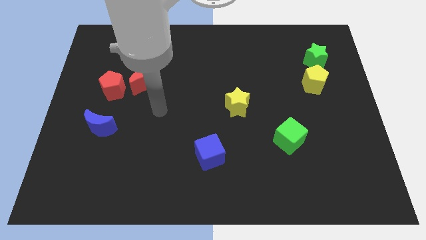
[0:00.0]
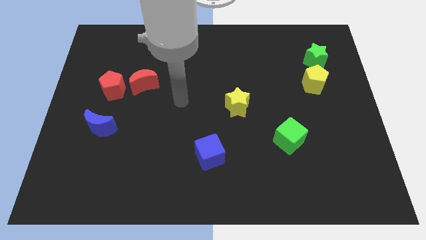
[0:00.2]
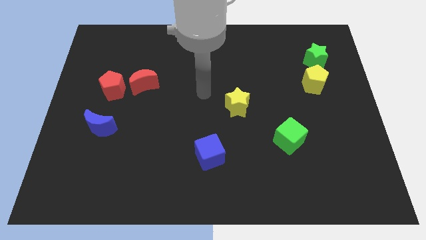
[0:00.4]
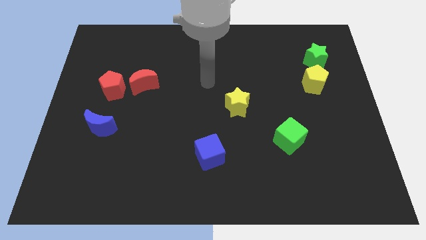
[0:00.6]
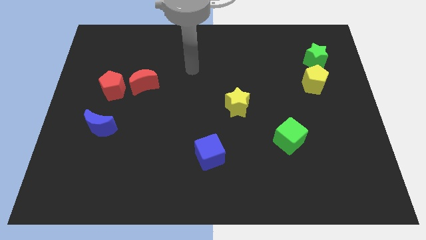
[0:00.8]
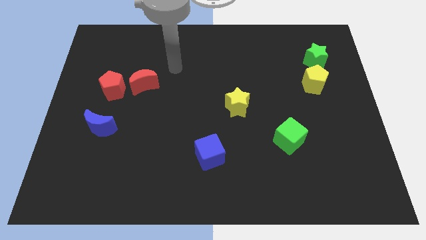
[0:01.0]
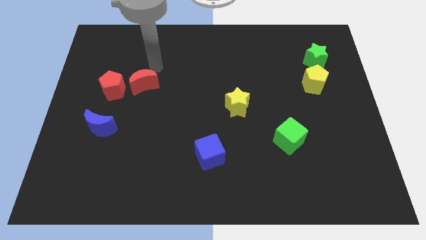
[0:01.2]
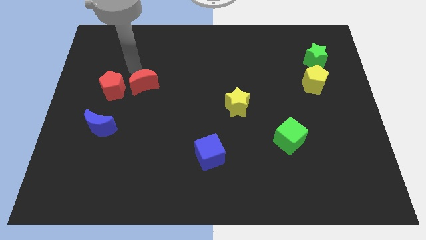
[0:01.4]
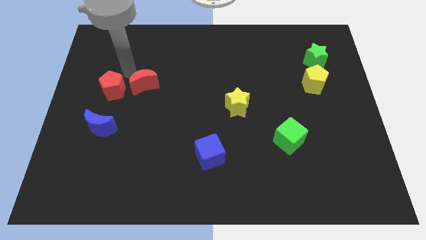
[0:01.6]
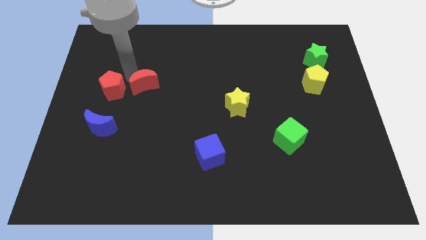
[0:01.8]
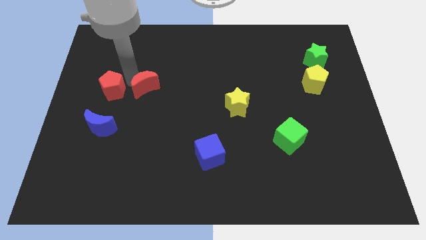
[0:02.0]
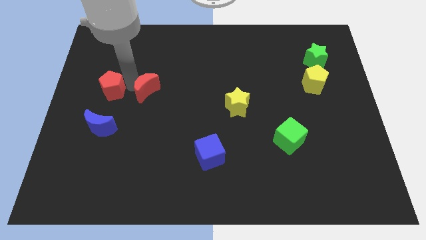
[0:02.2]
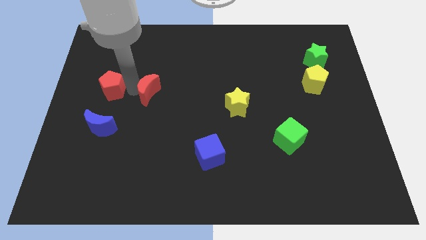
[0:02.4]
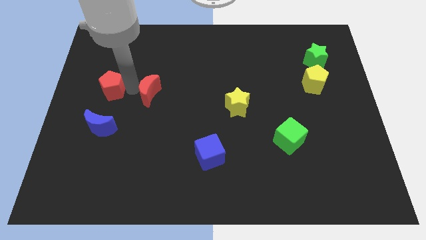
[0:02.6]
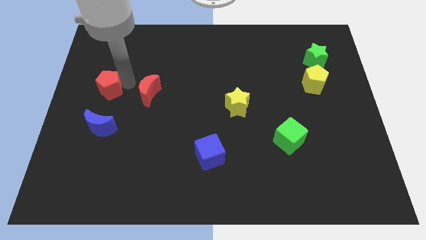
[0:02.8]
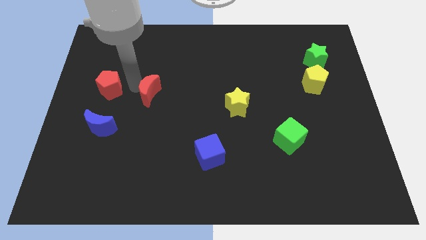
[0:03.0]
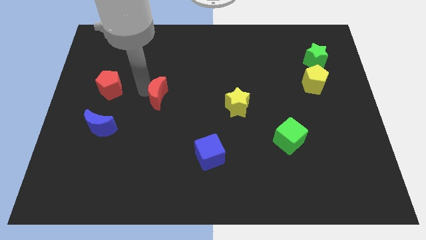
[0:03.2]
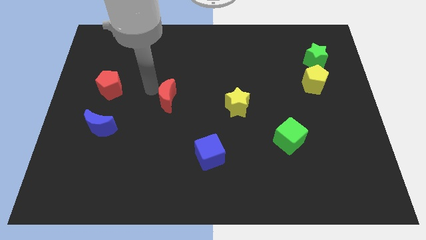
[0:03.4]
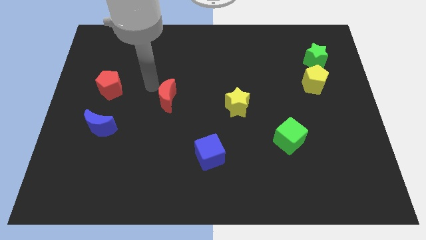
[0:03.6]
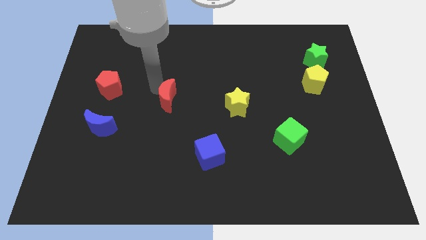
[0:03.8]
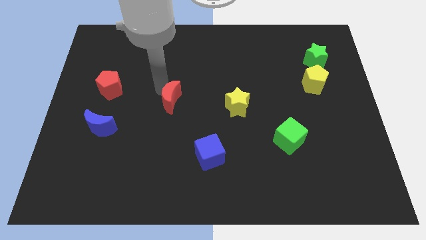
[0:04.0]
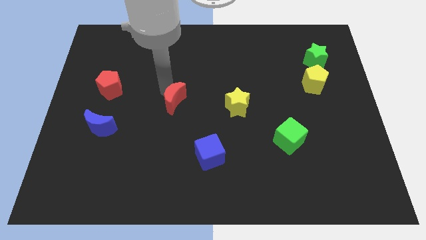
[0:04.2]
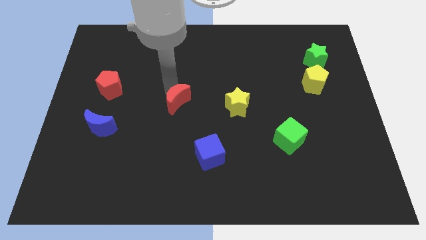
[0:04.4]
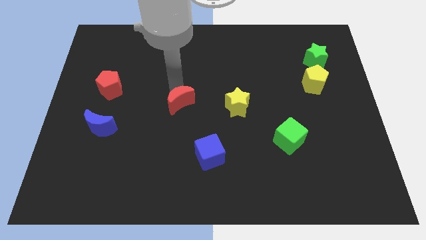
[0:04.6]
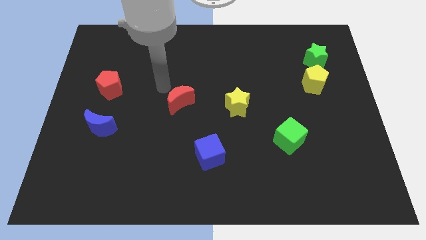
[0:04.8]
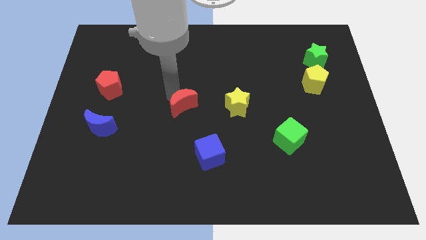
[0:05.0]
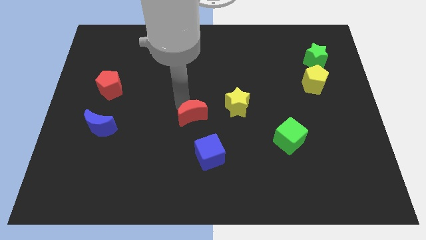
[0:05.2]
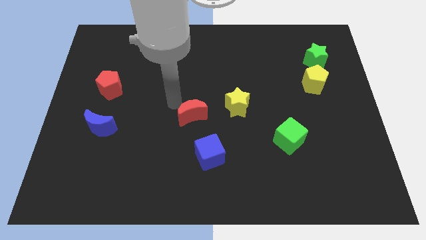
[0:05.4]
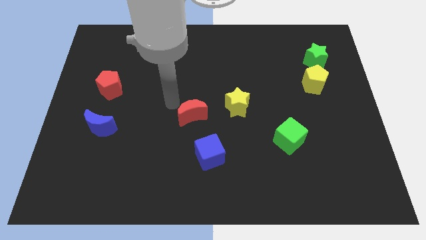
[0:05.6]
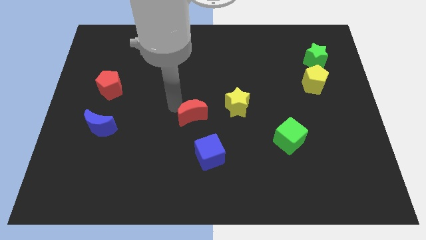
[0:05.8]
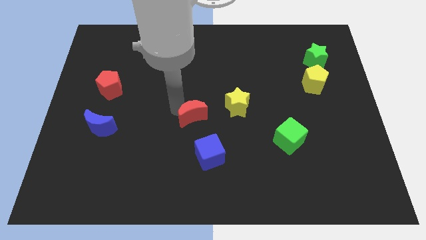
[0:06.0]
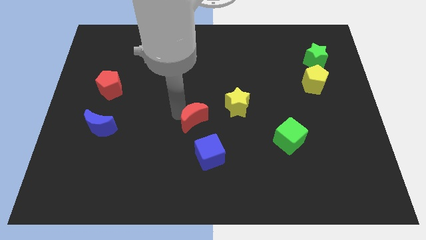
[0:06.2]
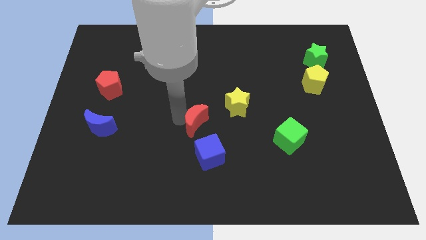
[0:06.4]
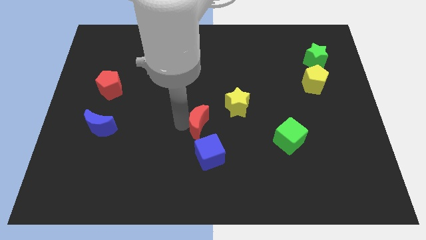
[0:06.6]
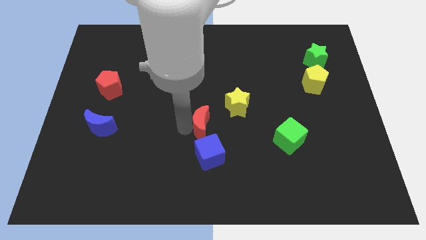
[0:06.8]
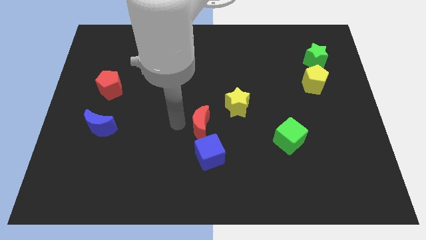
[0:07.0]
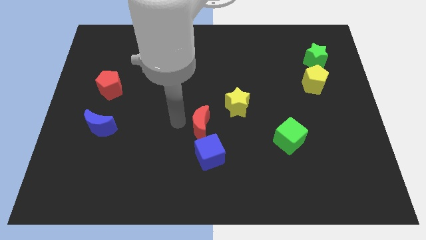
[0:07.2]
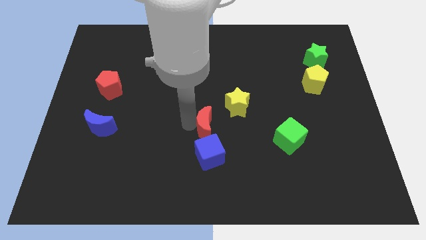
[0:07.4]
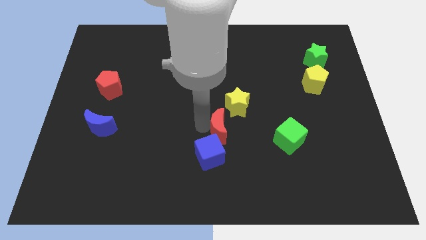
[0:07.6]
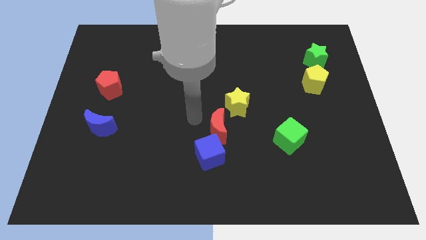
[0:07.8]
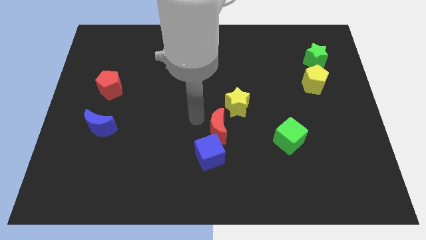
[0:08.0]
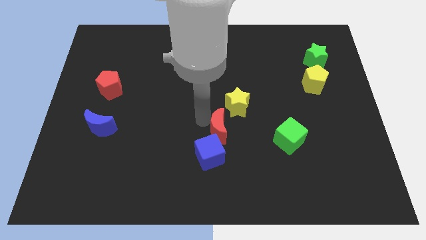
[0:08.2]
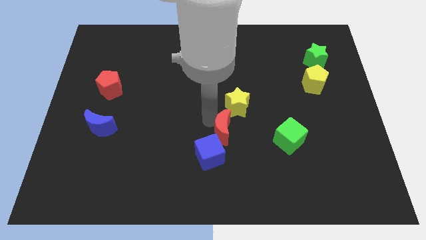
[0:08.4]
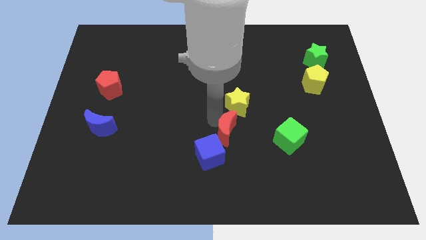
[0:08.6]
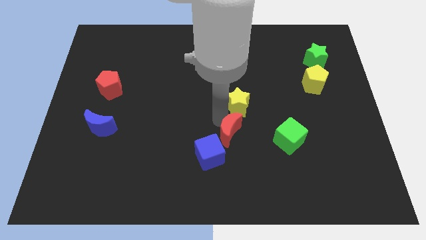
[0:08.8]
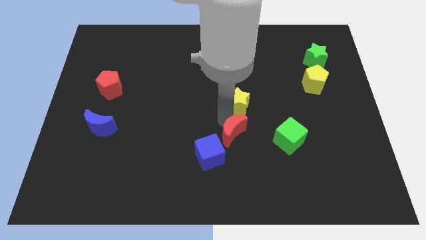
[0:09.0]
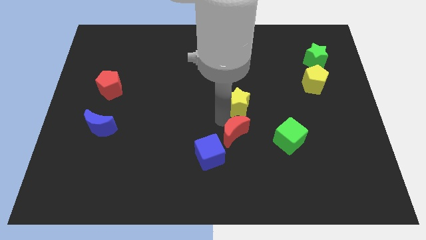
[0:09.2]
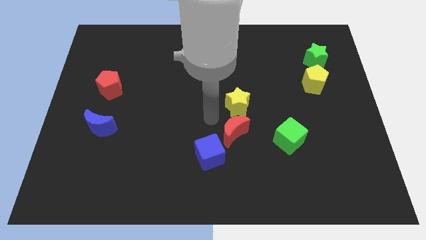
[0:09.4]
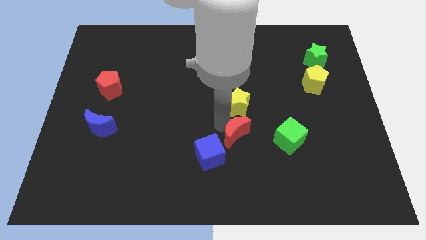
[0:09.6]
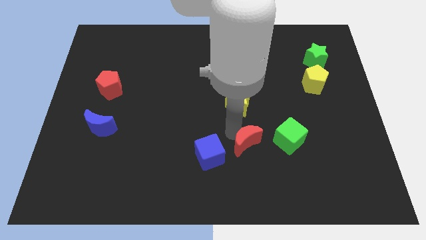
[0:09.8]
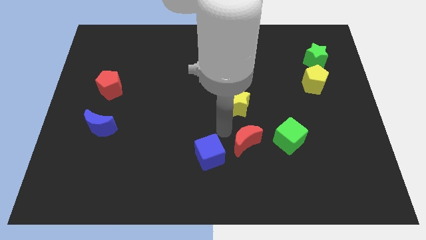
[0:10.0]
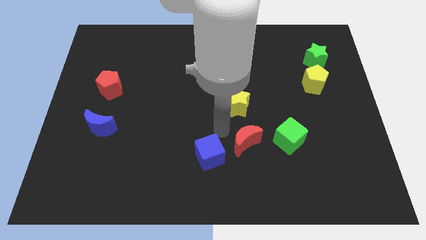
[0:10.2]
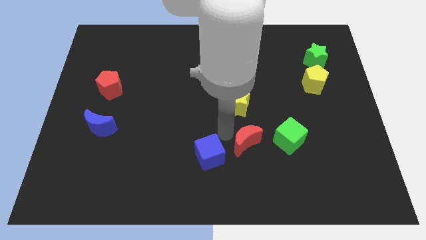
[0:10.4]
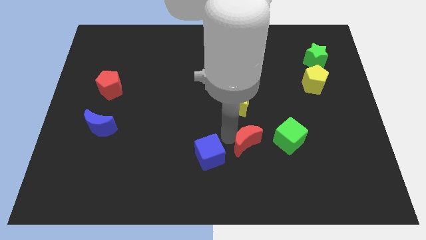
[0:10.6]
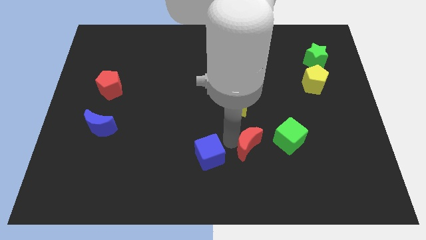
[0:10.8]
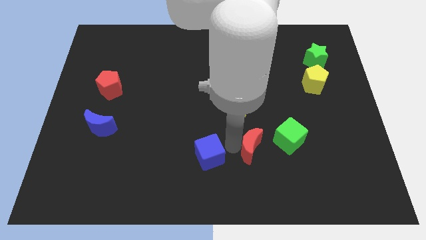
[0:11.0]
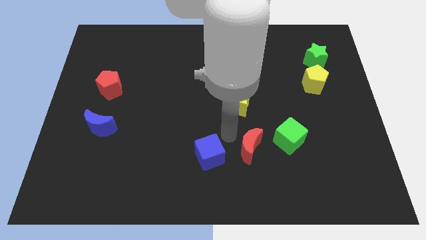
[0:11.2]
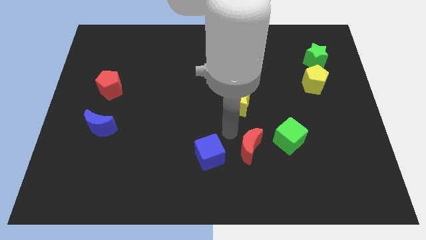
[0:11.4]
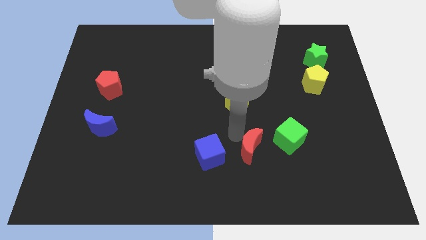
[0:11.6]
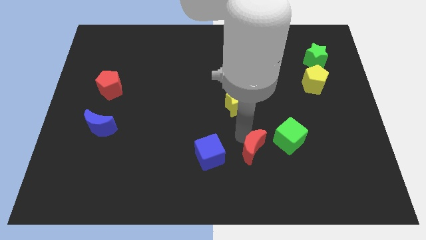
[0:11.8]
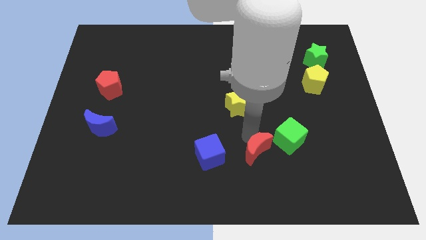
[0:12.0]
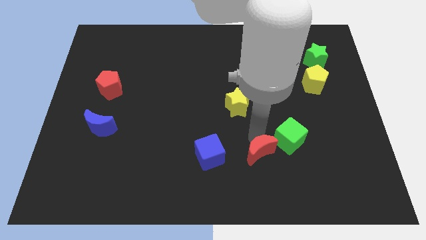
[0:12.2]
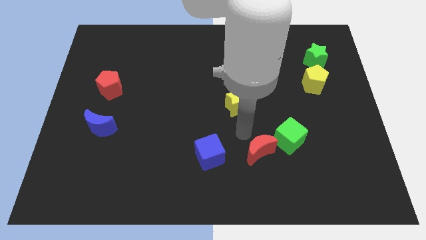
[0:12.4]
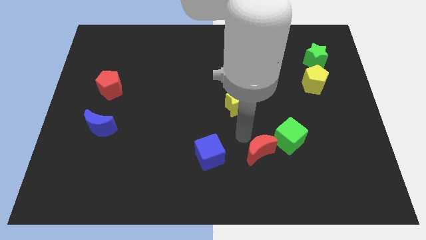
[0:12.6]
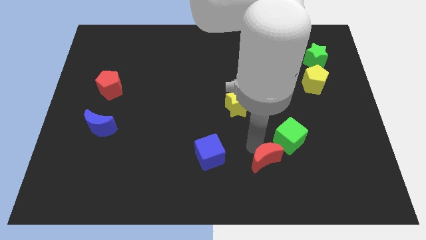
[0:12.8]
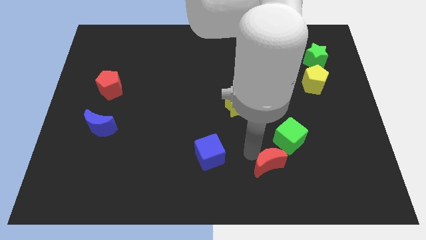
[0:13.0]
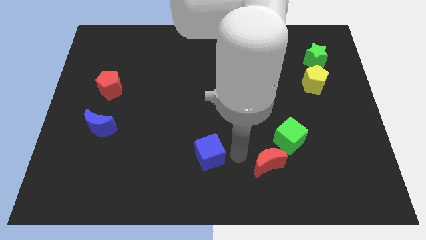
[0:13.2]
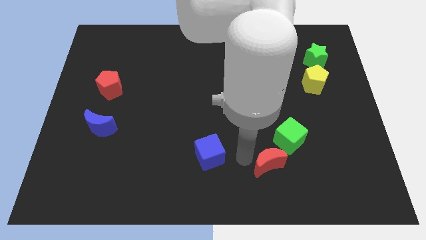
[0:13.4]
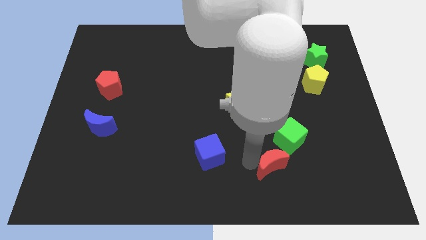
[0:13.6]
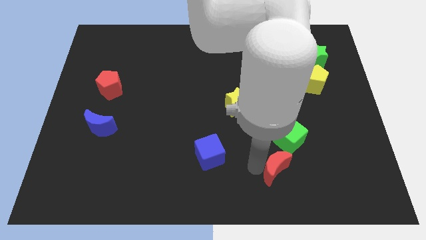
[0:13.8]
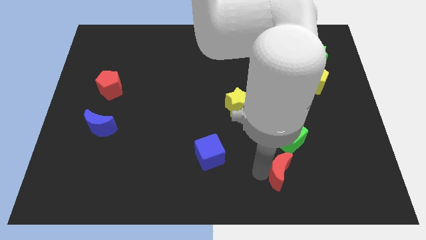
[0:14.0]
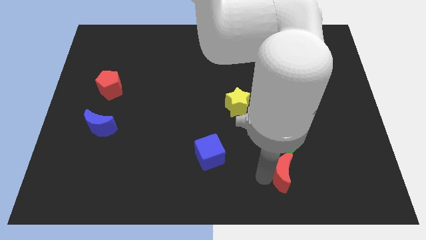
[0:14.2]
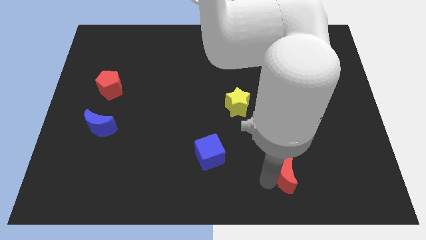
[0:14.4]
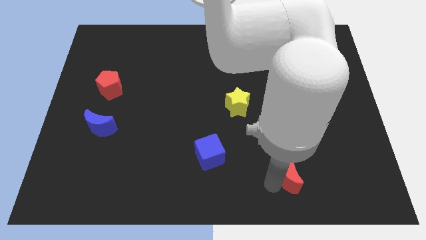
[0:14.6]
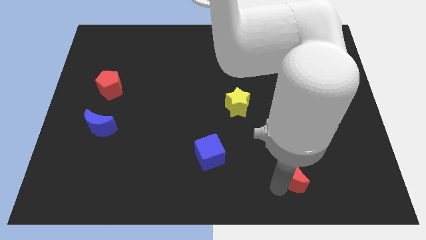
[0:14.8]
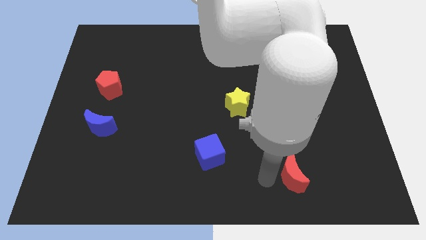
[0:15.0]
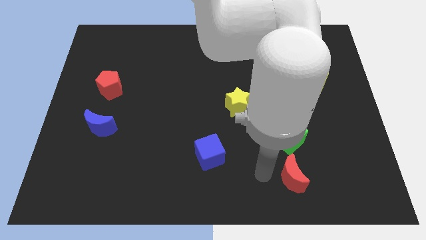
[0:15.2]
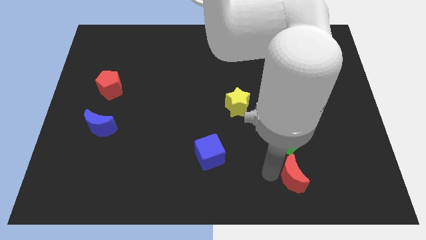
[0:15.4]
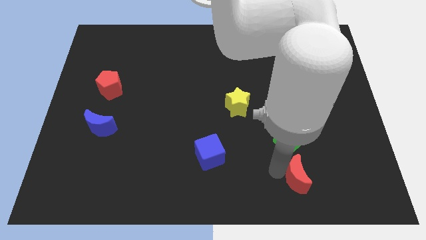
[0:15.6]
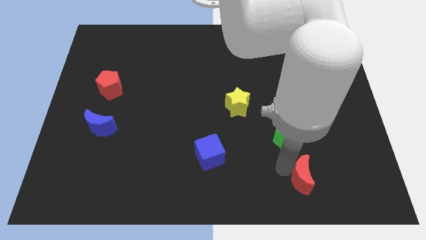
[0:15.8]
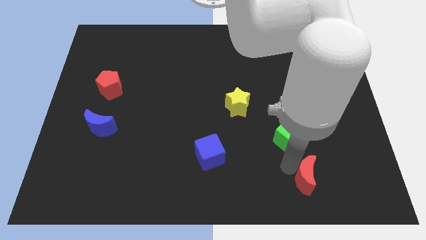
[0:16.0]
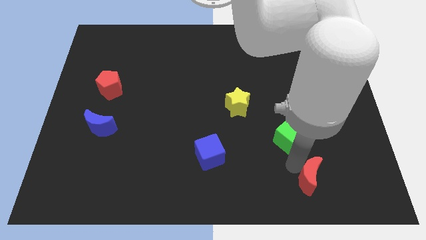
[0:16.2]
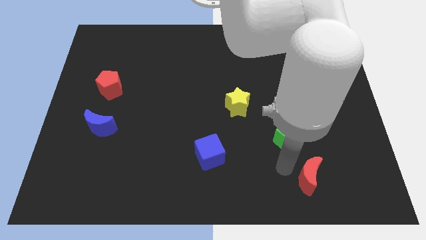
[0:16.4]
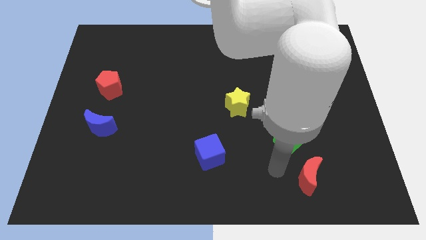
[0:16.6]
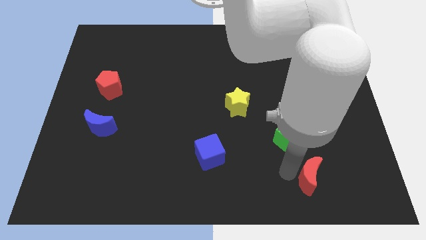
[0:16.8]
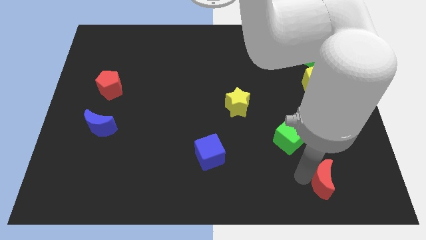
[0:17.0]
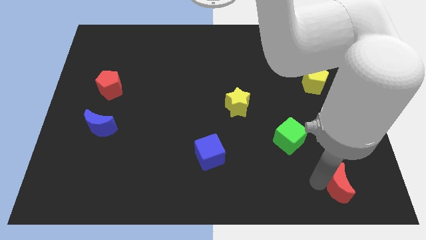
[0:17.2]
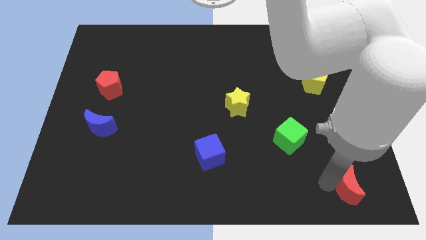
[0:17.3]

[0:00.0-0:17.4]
put the red moon to the bottom right
